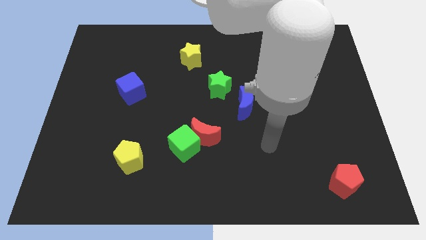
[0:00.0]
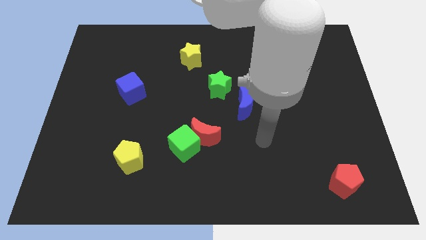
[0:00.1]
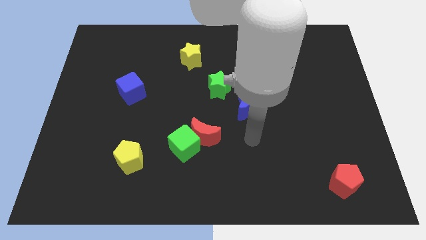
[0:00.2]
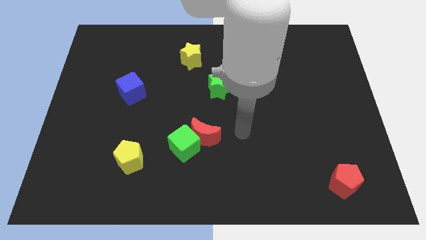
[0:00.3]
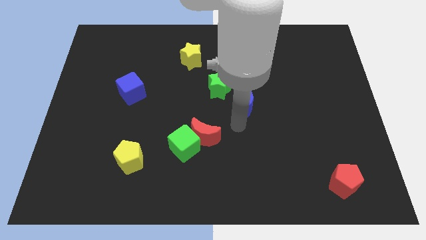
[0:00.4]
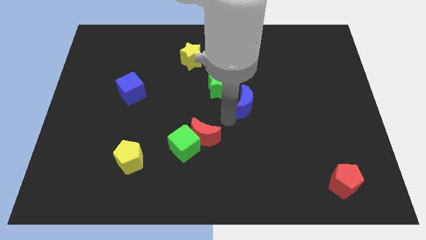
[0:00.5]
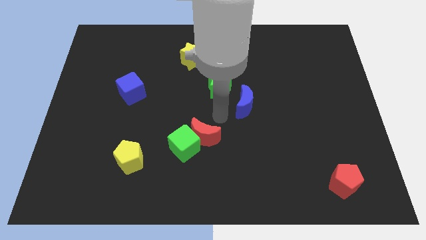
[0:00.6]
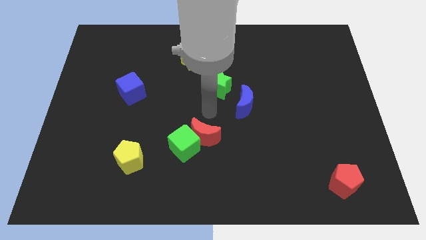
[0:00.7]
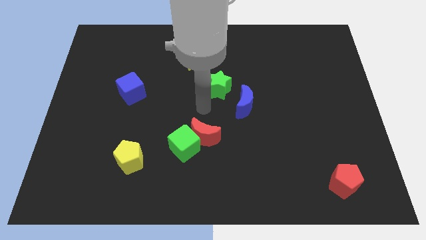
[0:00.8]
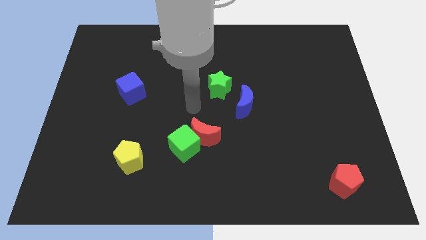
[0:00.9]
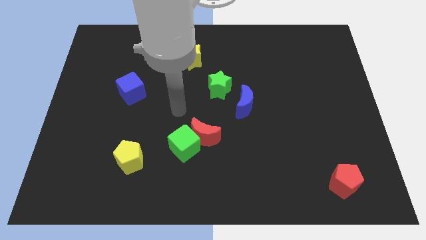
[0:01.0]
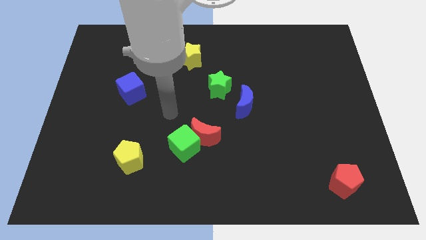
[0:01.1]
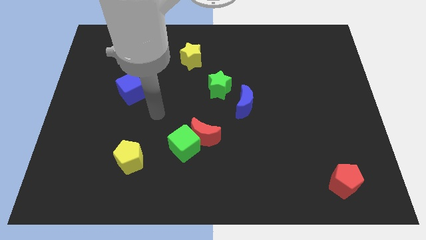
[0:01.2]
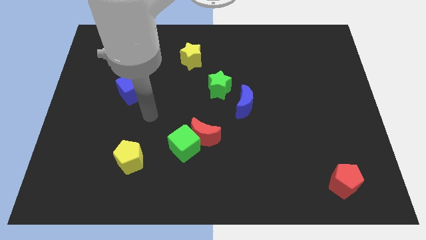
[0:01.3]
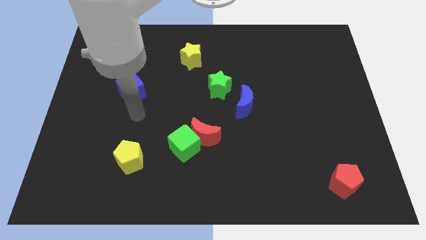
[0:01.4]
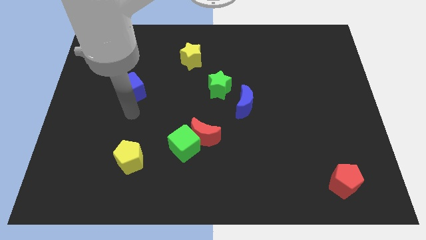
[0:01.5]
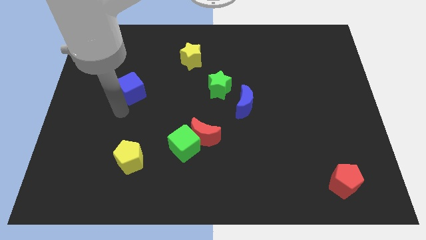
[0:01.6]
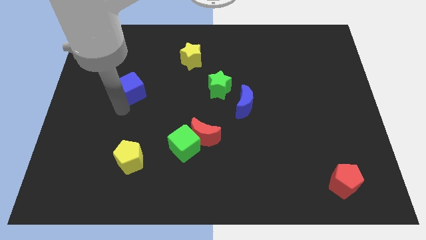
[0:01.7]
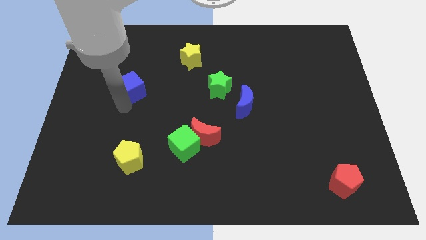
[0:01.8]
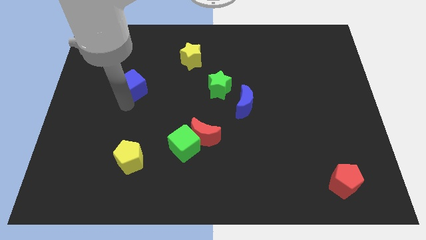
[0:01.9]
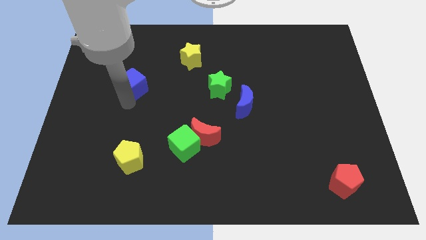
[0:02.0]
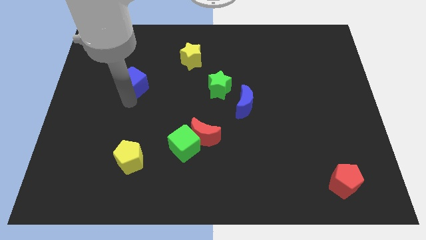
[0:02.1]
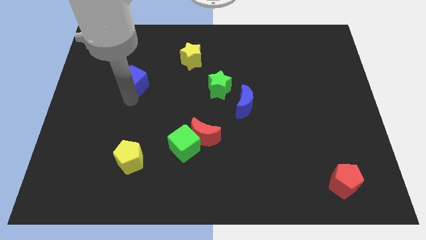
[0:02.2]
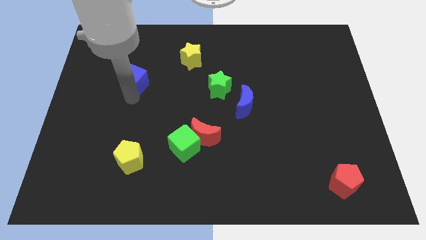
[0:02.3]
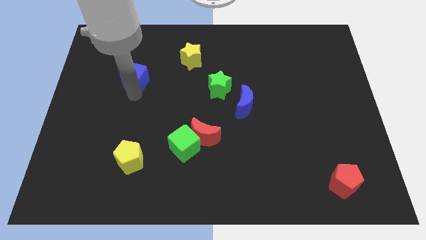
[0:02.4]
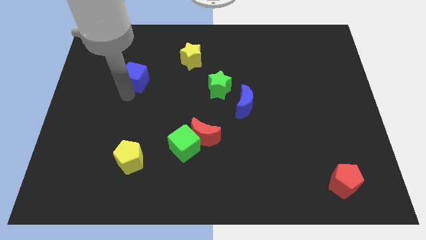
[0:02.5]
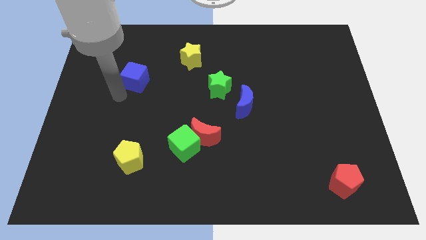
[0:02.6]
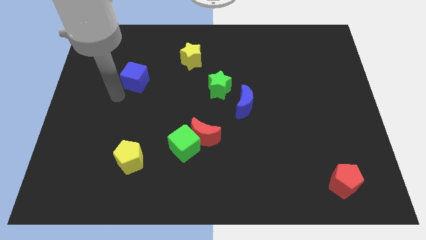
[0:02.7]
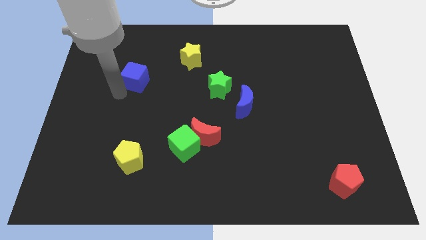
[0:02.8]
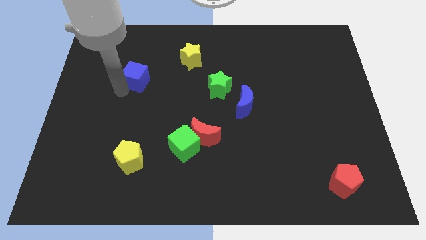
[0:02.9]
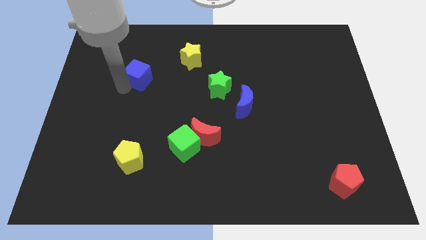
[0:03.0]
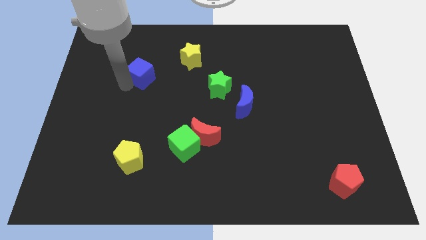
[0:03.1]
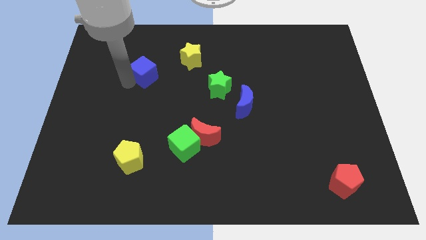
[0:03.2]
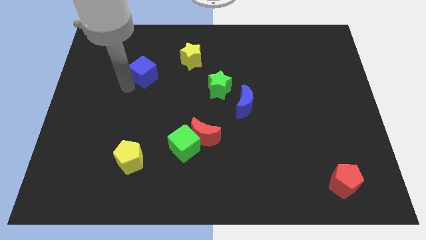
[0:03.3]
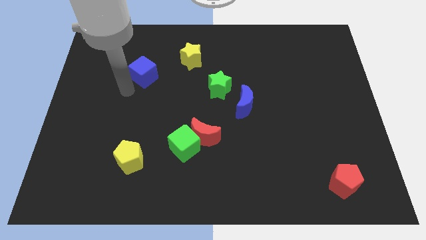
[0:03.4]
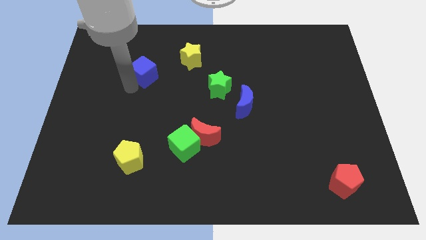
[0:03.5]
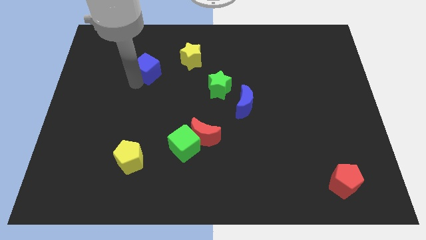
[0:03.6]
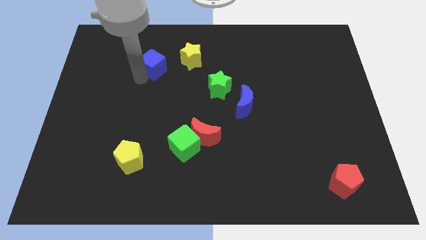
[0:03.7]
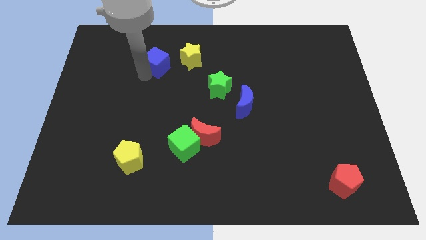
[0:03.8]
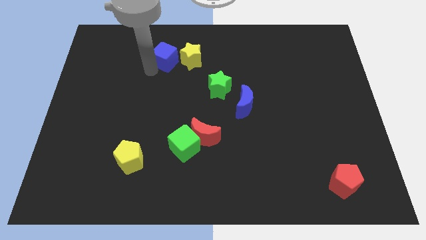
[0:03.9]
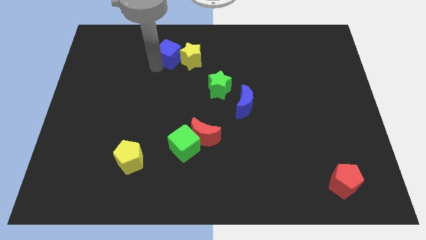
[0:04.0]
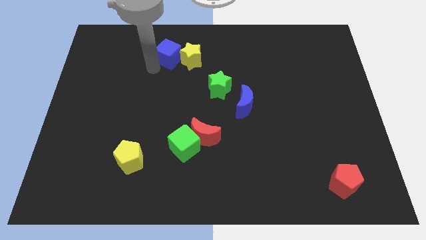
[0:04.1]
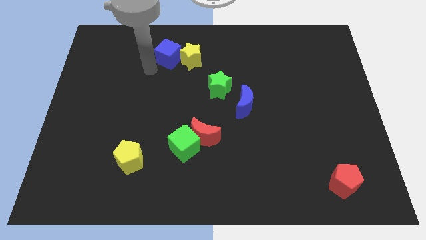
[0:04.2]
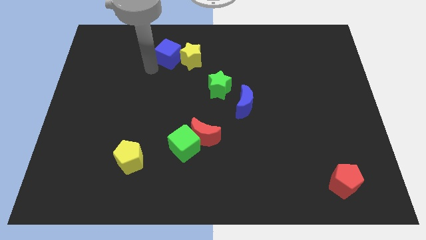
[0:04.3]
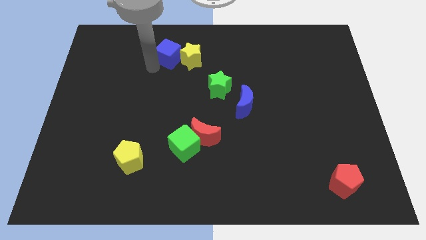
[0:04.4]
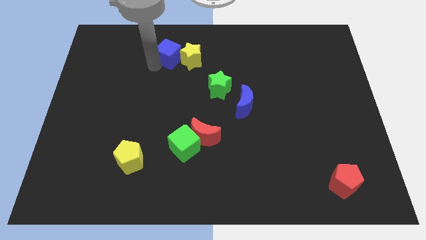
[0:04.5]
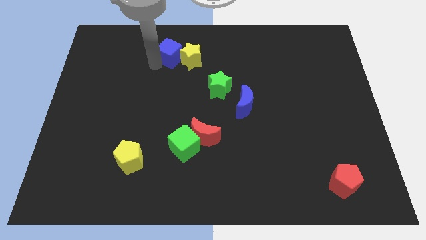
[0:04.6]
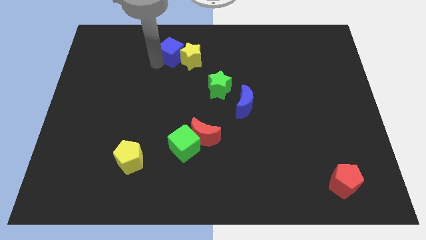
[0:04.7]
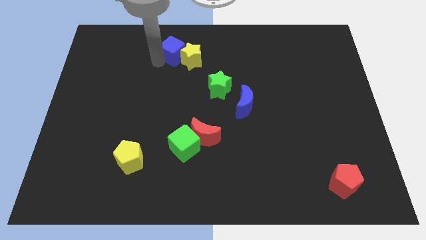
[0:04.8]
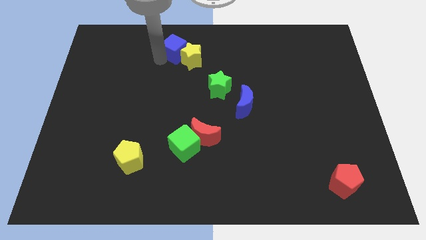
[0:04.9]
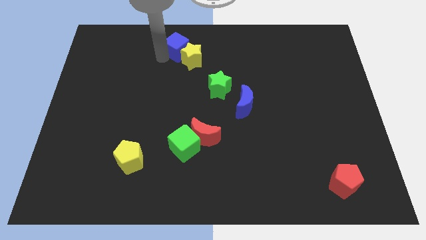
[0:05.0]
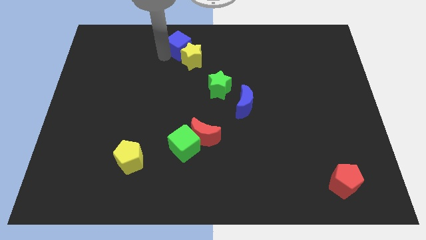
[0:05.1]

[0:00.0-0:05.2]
put the blue cube to the top side

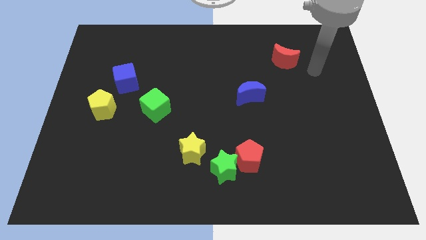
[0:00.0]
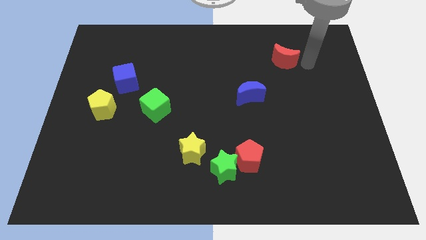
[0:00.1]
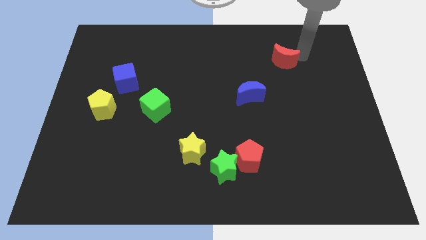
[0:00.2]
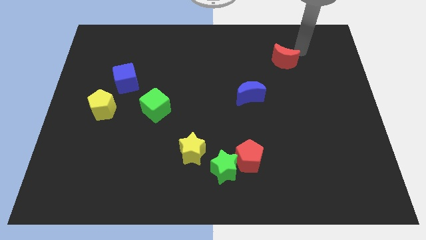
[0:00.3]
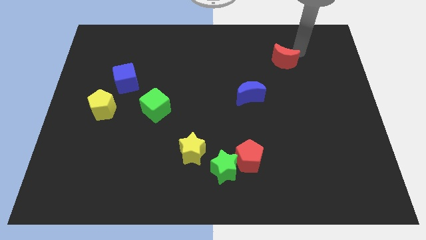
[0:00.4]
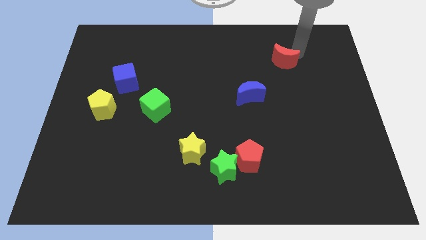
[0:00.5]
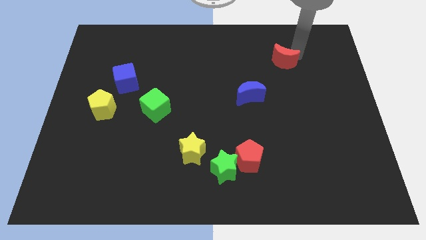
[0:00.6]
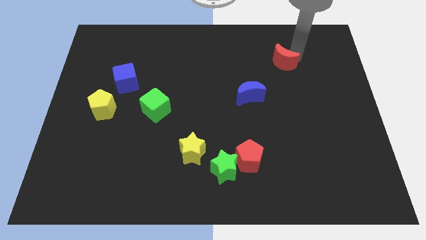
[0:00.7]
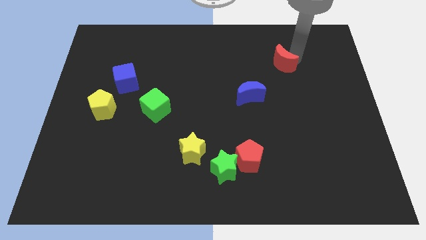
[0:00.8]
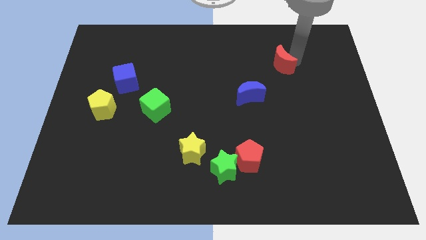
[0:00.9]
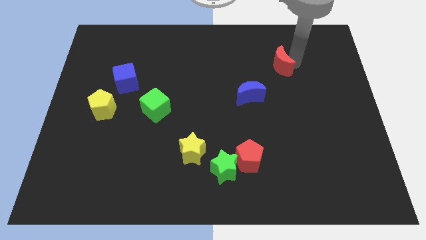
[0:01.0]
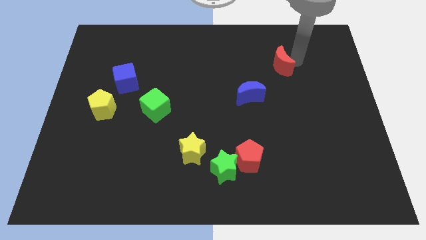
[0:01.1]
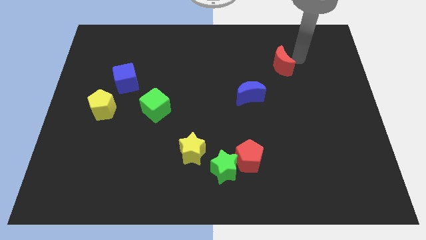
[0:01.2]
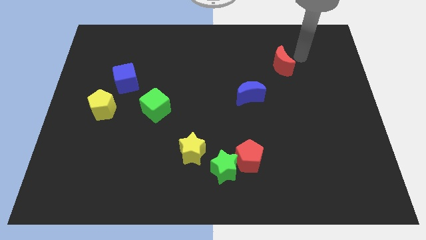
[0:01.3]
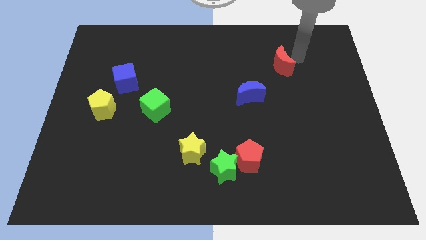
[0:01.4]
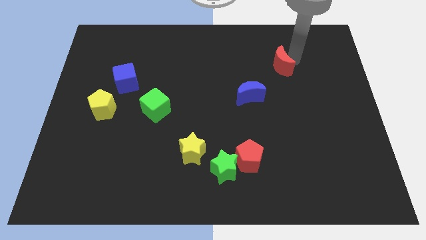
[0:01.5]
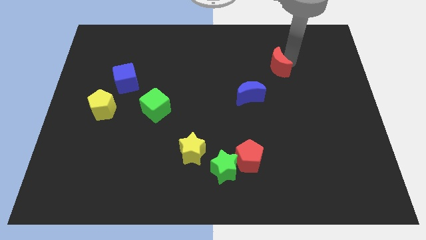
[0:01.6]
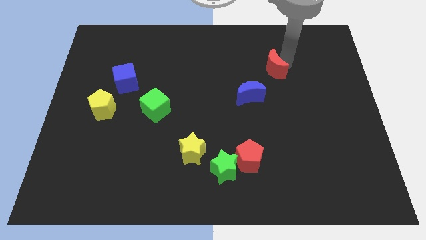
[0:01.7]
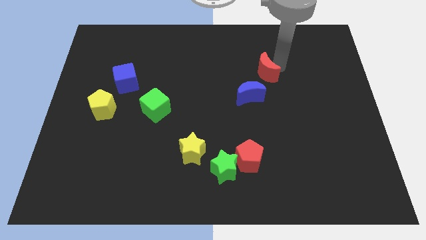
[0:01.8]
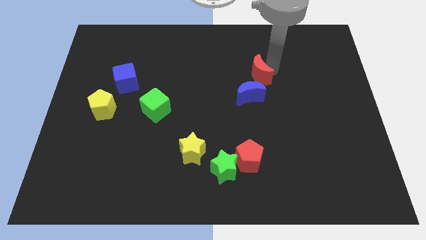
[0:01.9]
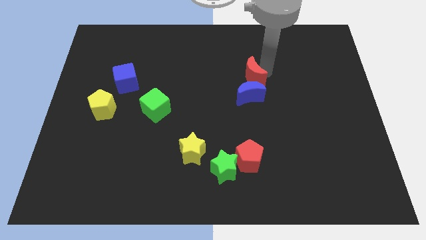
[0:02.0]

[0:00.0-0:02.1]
push the red moon to the middle of the board
